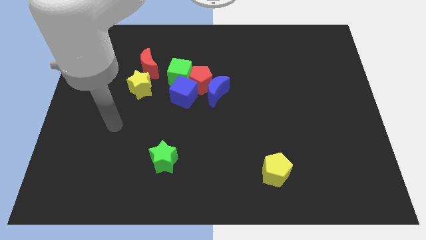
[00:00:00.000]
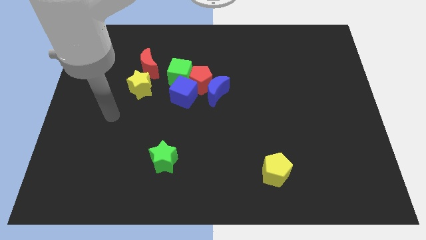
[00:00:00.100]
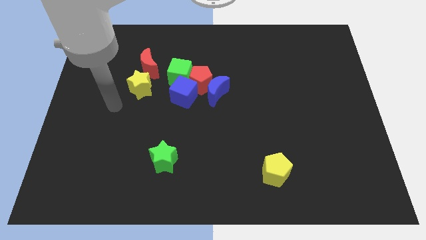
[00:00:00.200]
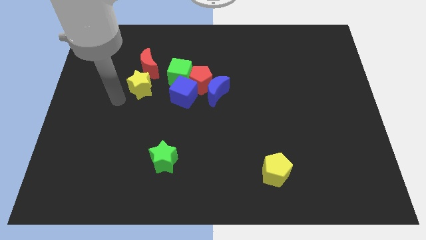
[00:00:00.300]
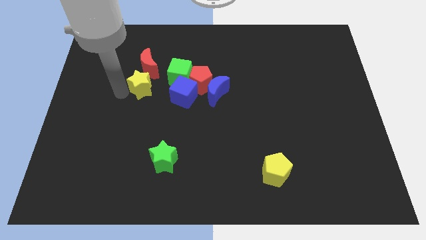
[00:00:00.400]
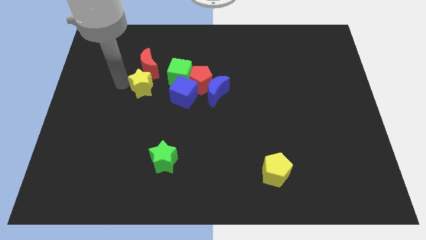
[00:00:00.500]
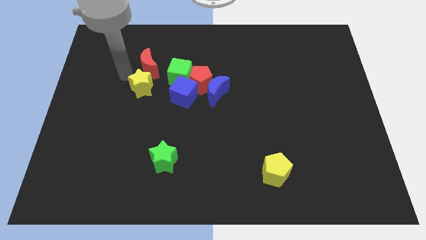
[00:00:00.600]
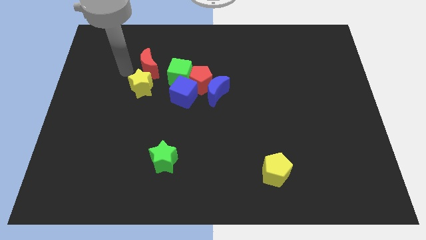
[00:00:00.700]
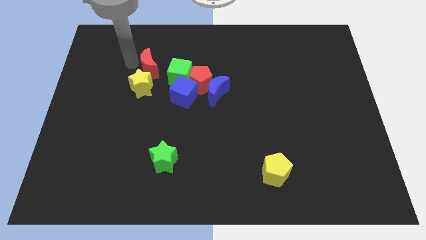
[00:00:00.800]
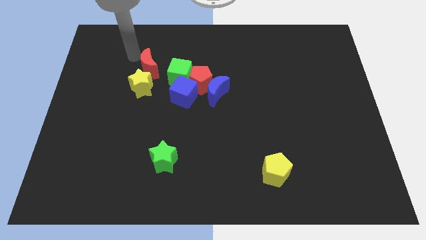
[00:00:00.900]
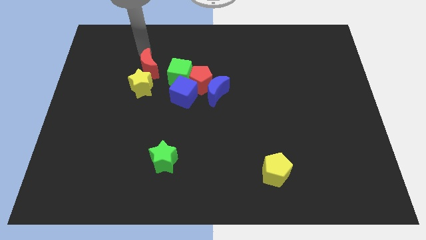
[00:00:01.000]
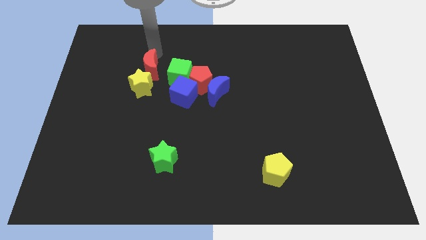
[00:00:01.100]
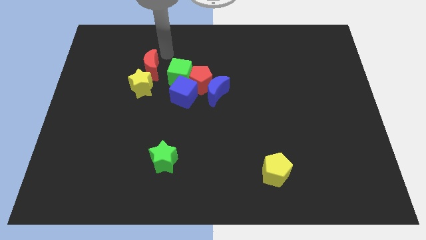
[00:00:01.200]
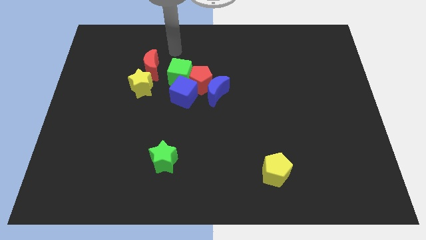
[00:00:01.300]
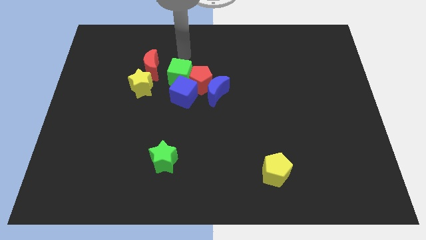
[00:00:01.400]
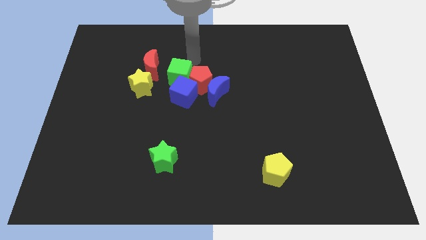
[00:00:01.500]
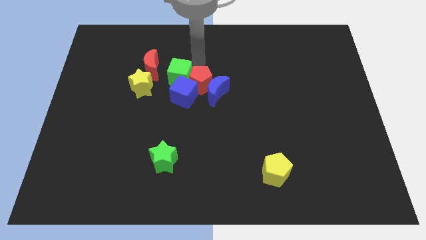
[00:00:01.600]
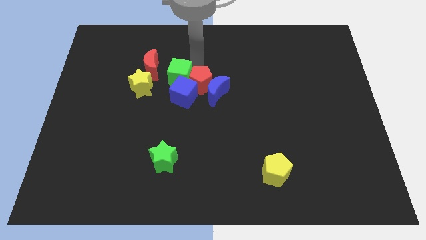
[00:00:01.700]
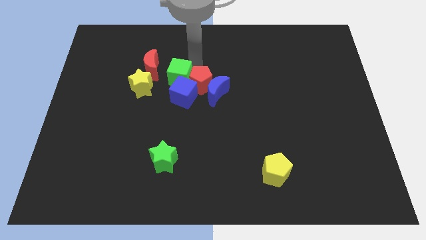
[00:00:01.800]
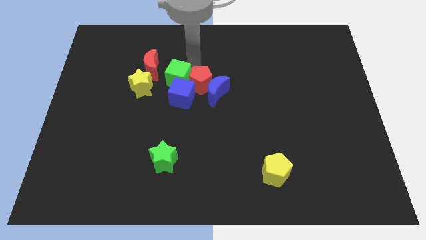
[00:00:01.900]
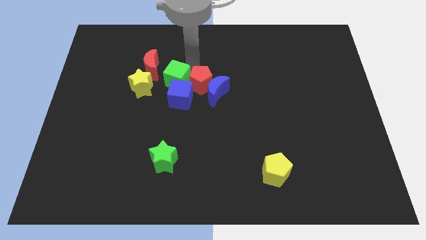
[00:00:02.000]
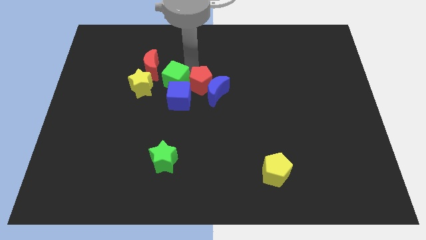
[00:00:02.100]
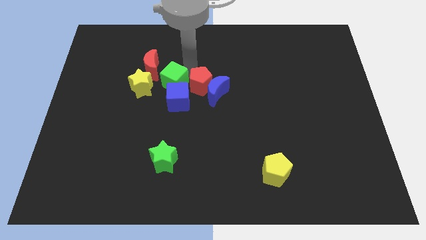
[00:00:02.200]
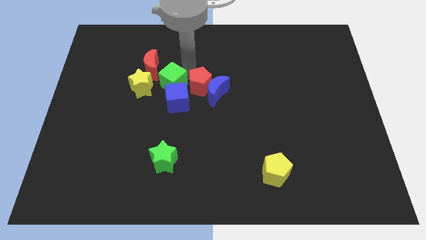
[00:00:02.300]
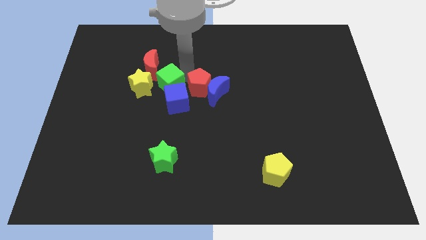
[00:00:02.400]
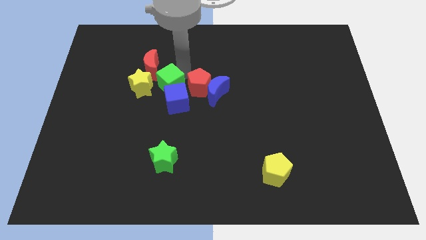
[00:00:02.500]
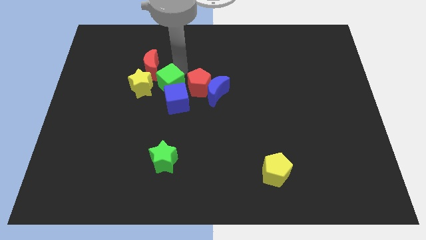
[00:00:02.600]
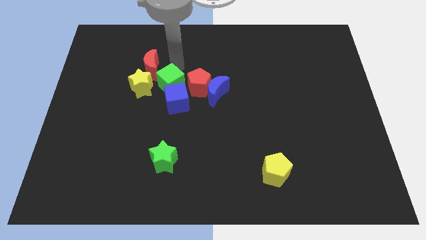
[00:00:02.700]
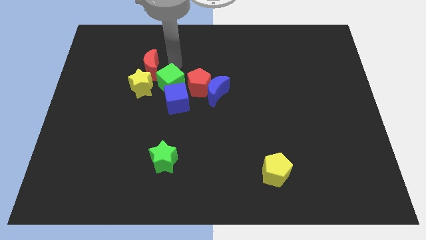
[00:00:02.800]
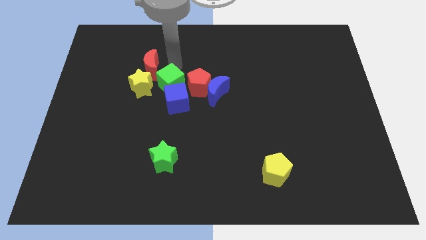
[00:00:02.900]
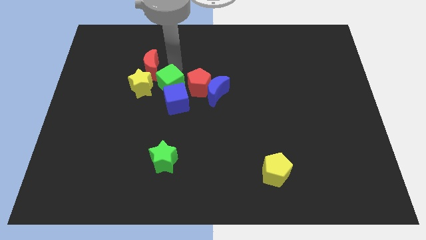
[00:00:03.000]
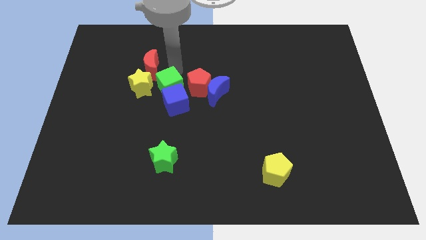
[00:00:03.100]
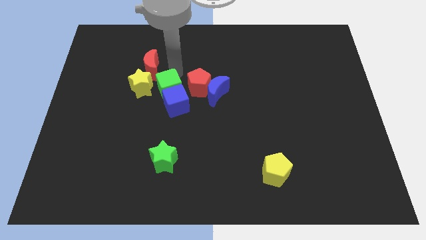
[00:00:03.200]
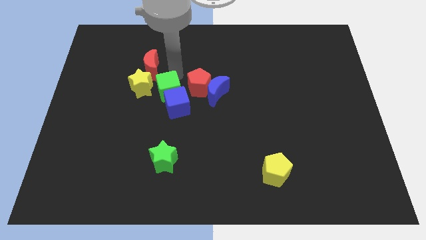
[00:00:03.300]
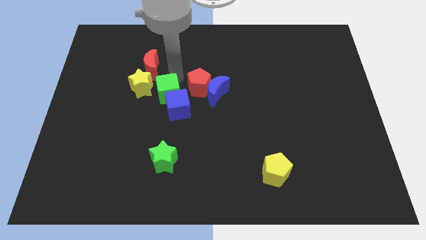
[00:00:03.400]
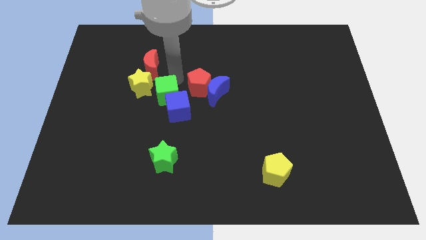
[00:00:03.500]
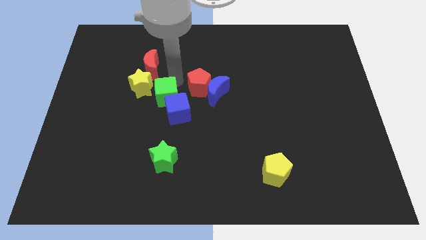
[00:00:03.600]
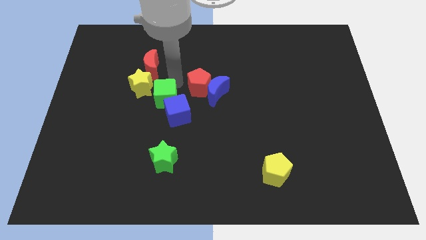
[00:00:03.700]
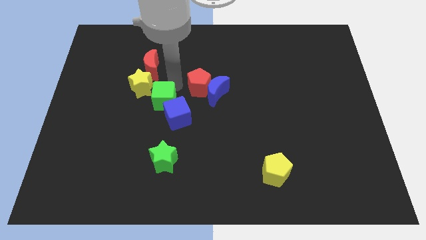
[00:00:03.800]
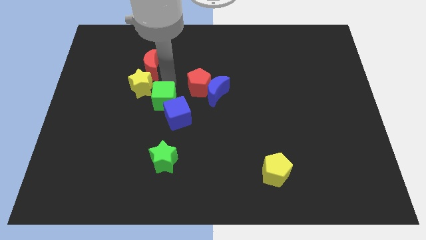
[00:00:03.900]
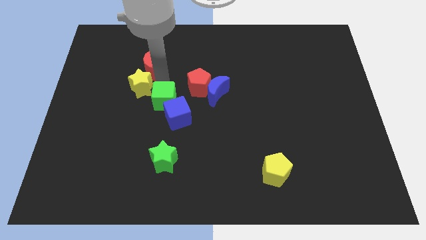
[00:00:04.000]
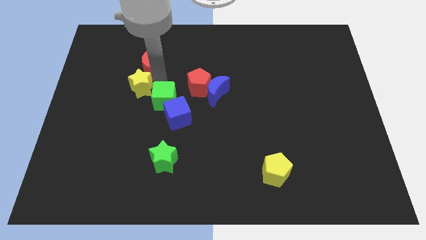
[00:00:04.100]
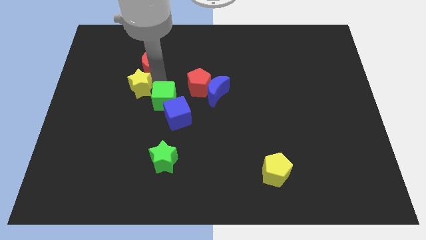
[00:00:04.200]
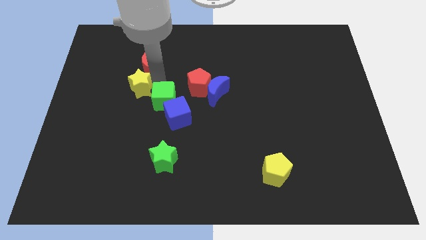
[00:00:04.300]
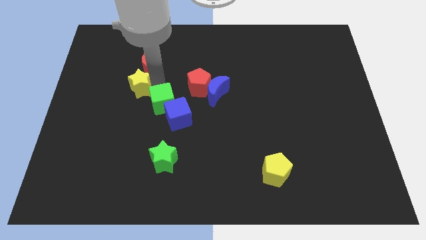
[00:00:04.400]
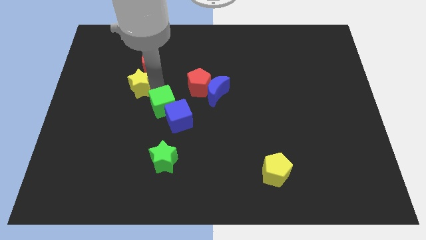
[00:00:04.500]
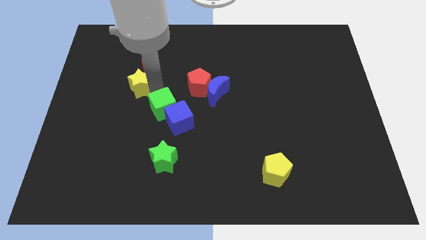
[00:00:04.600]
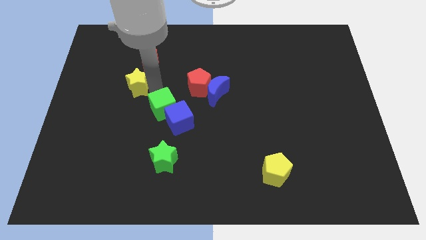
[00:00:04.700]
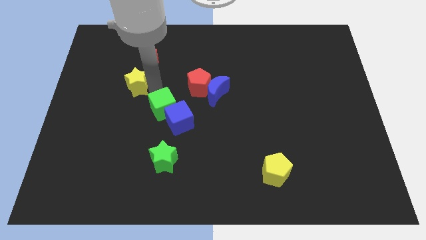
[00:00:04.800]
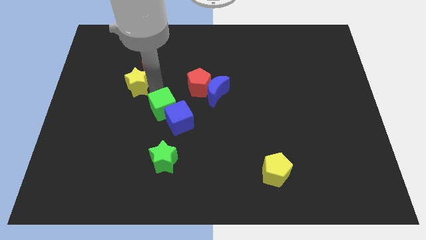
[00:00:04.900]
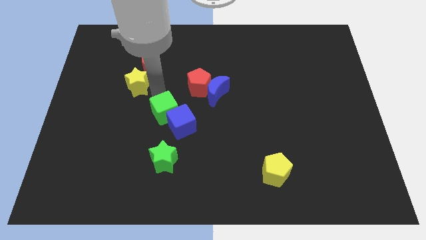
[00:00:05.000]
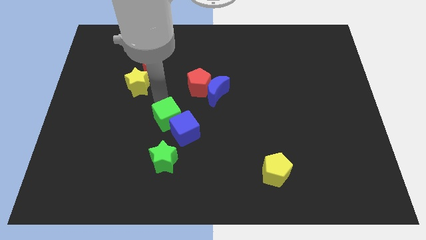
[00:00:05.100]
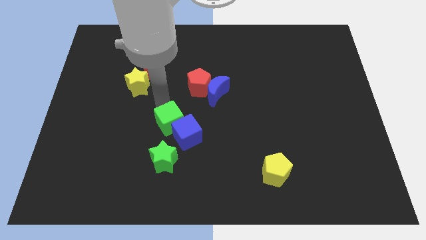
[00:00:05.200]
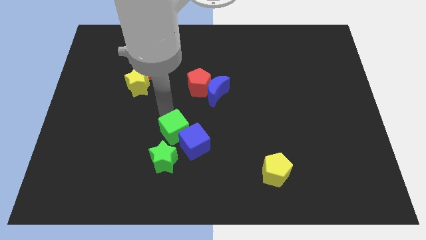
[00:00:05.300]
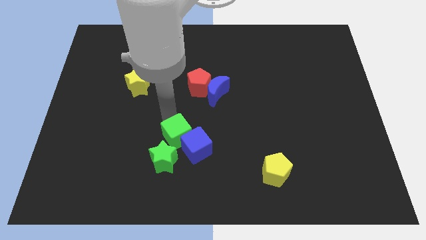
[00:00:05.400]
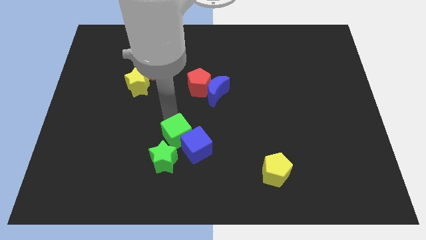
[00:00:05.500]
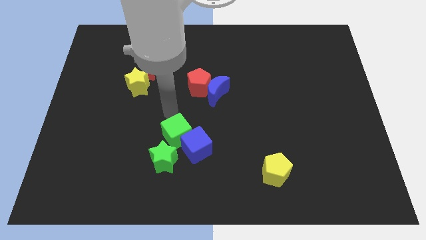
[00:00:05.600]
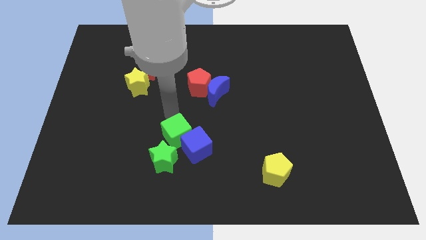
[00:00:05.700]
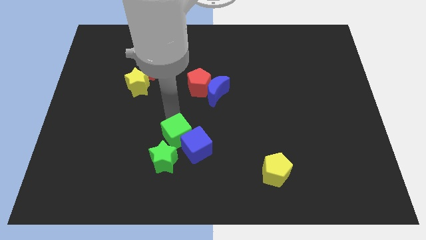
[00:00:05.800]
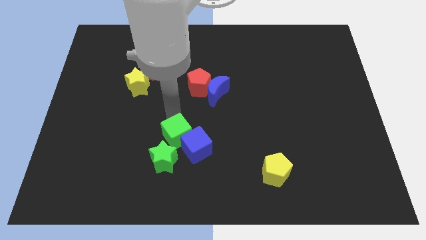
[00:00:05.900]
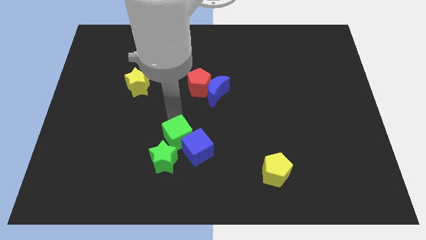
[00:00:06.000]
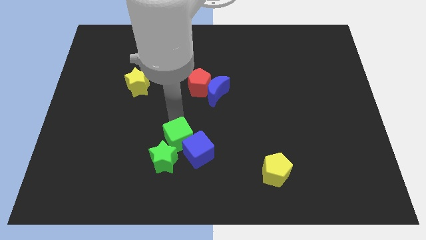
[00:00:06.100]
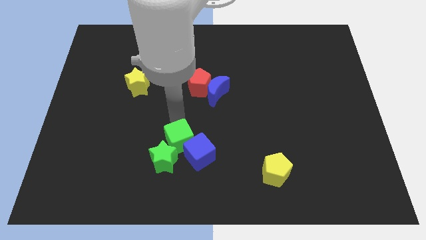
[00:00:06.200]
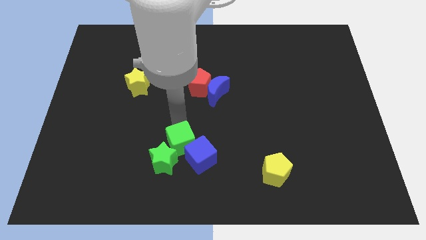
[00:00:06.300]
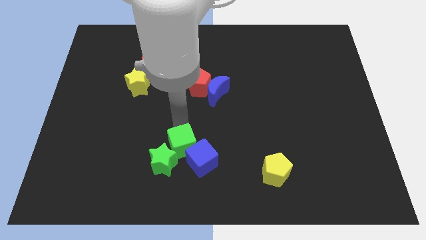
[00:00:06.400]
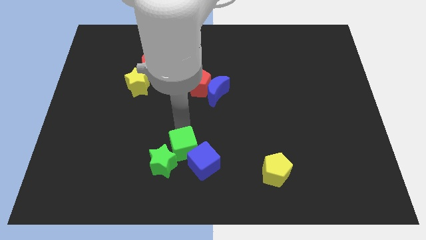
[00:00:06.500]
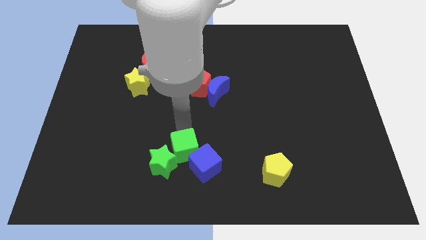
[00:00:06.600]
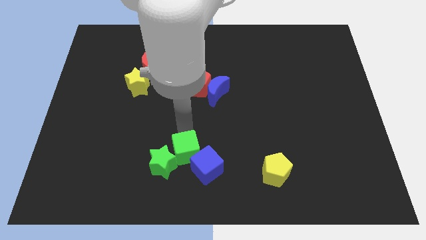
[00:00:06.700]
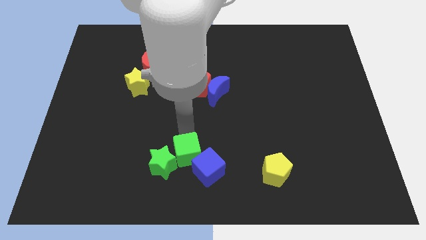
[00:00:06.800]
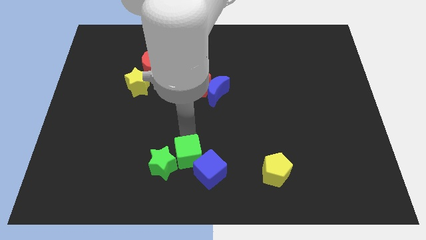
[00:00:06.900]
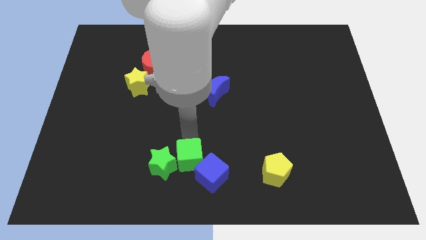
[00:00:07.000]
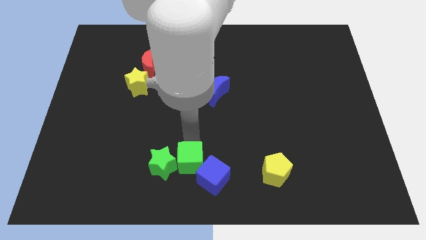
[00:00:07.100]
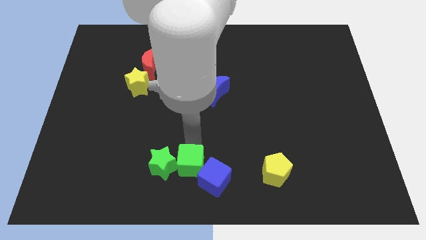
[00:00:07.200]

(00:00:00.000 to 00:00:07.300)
put the green cube to the bottom right side of the green star
